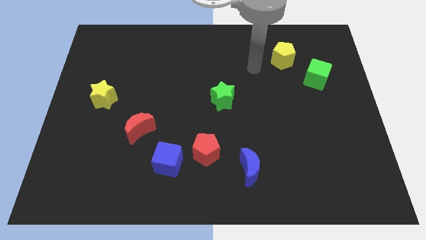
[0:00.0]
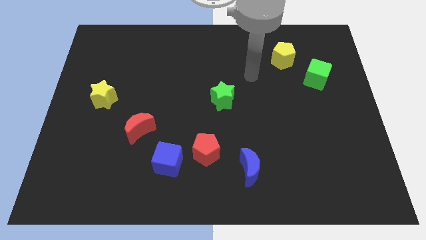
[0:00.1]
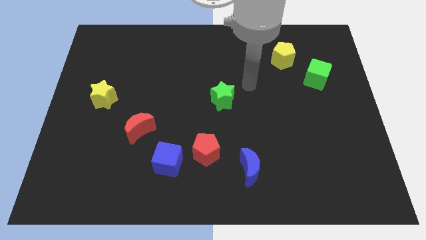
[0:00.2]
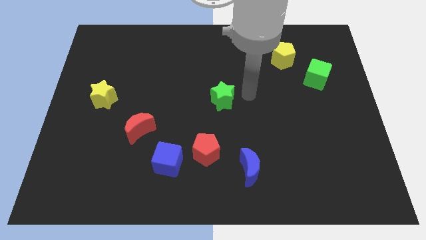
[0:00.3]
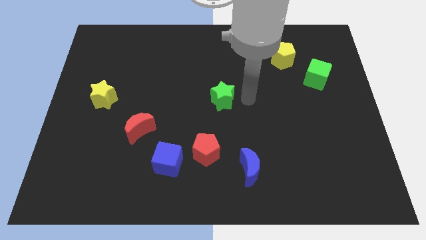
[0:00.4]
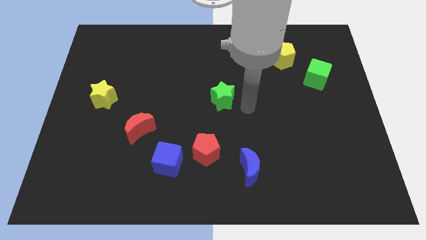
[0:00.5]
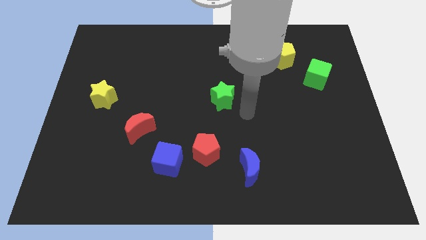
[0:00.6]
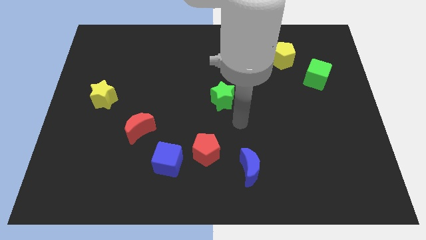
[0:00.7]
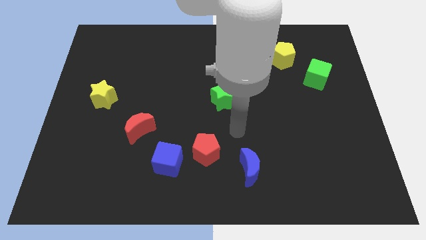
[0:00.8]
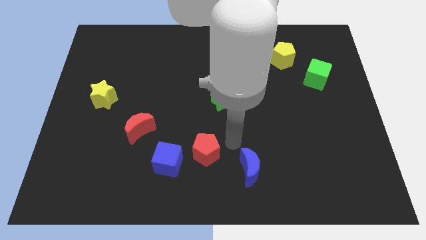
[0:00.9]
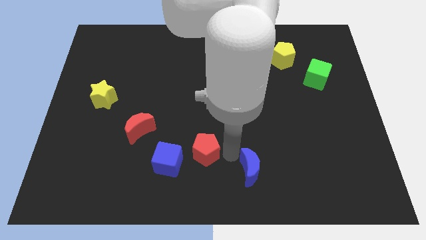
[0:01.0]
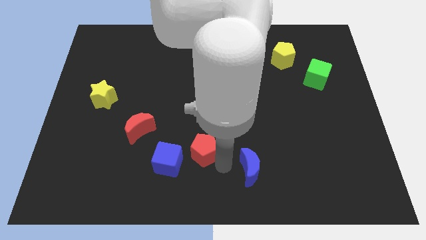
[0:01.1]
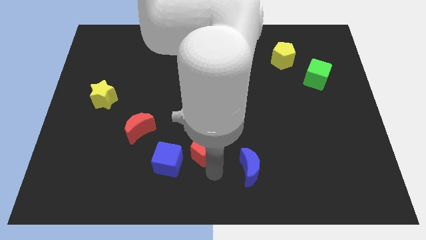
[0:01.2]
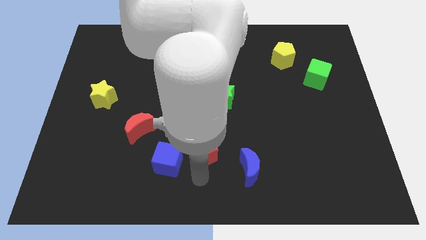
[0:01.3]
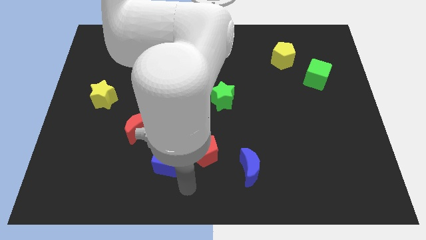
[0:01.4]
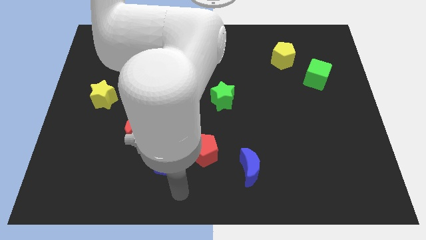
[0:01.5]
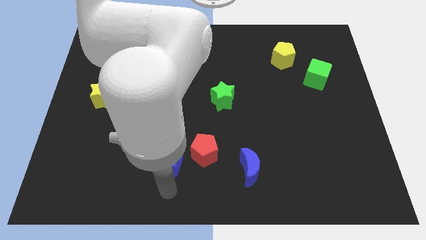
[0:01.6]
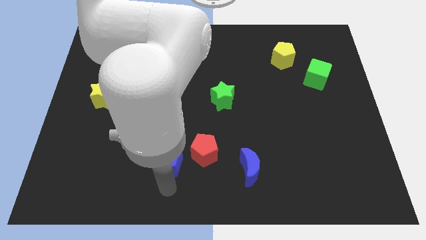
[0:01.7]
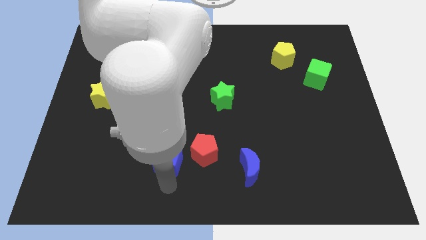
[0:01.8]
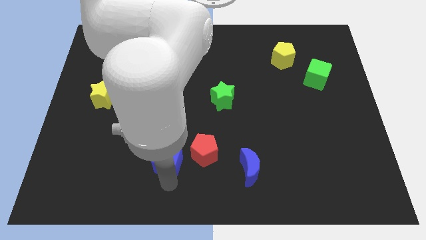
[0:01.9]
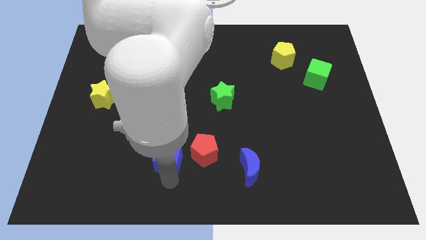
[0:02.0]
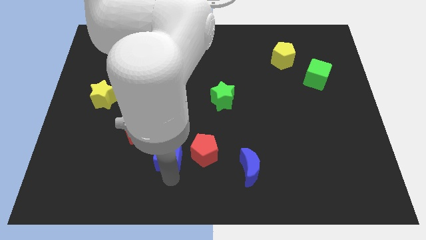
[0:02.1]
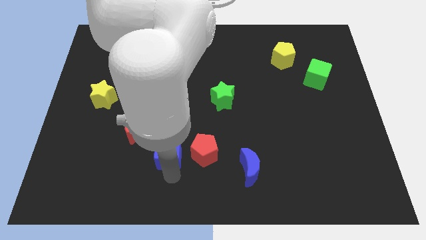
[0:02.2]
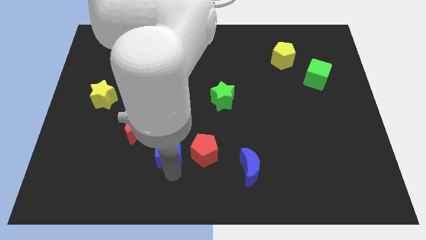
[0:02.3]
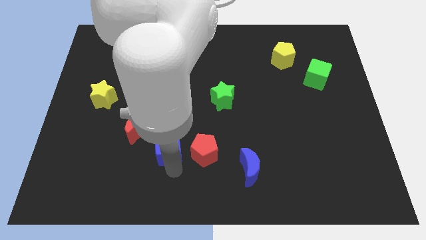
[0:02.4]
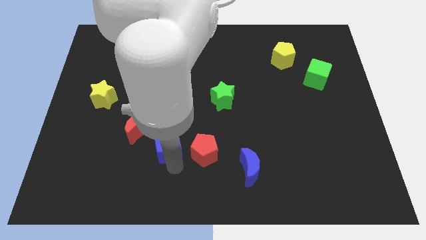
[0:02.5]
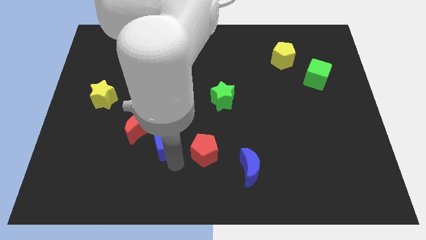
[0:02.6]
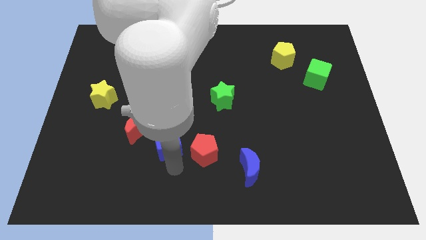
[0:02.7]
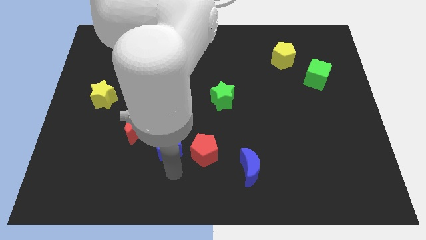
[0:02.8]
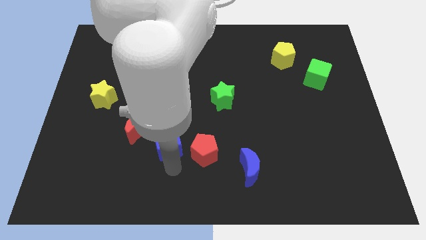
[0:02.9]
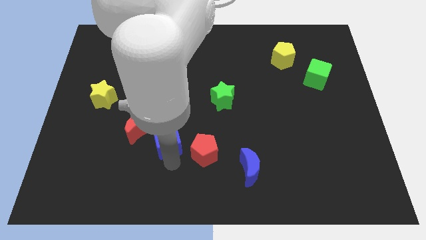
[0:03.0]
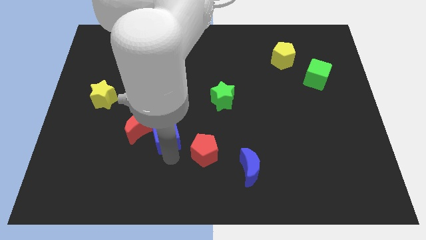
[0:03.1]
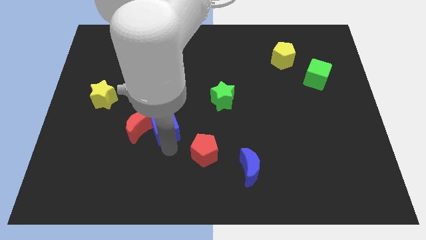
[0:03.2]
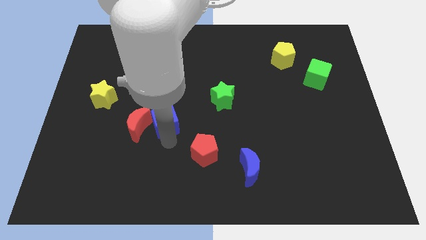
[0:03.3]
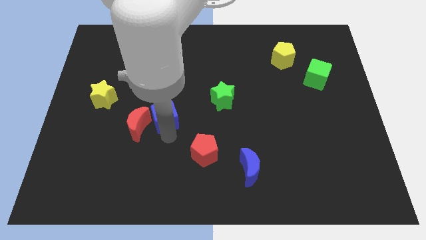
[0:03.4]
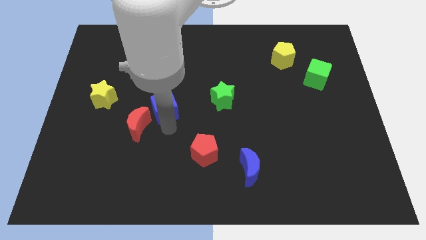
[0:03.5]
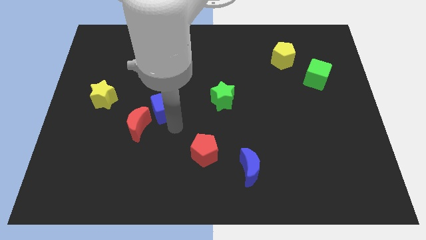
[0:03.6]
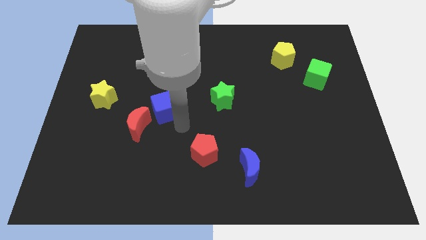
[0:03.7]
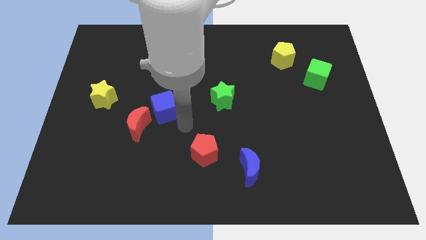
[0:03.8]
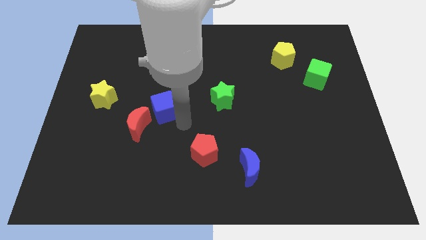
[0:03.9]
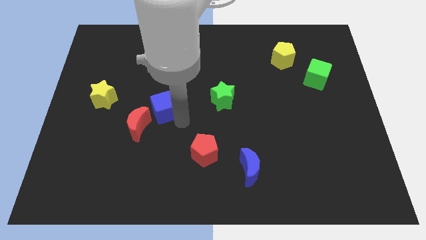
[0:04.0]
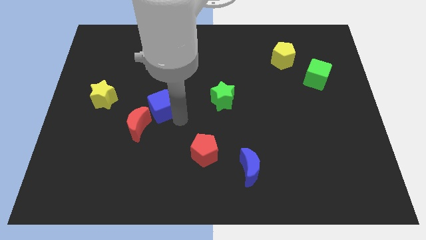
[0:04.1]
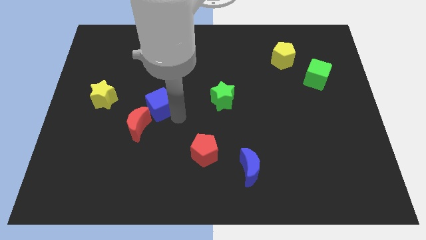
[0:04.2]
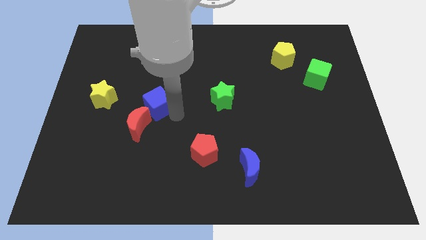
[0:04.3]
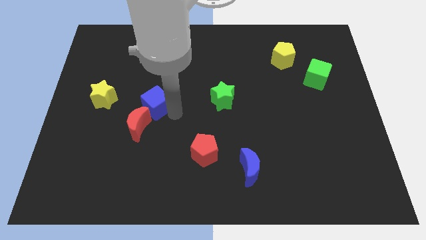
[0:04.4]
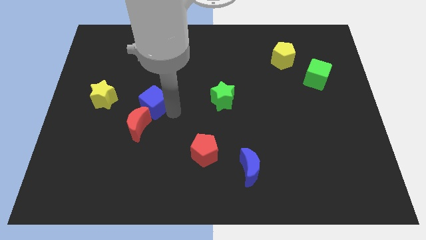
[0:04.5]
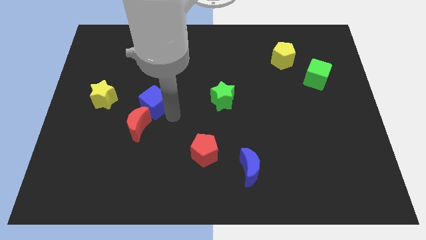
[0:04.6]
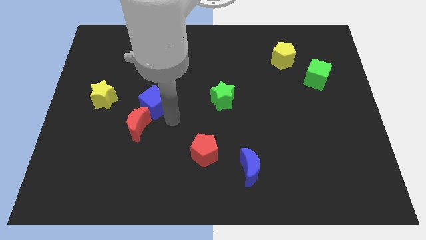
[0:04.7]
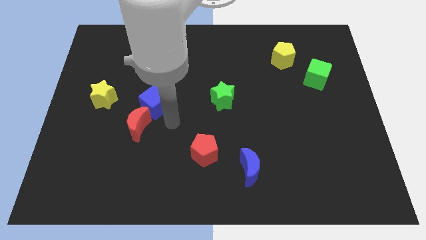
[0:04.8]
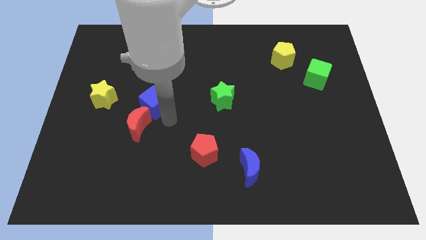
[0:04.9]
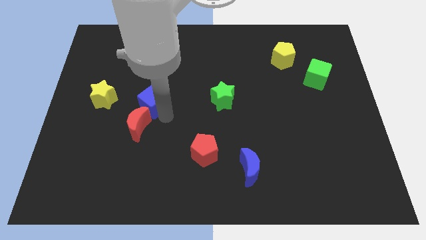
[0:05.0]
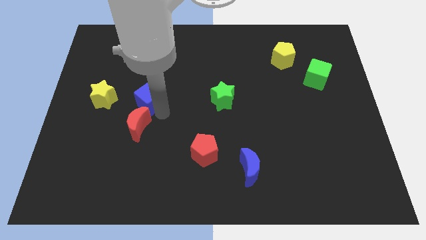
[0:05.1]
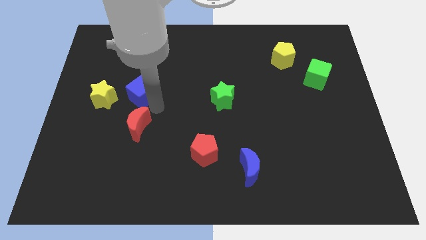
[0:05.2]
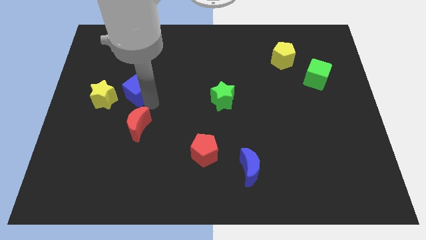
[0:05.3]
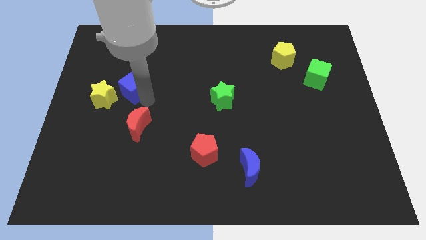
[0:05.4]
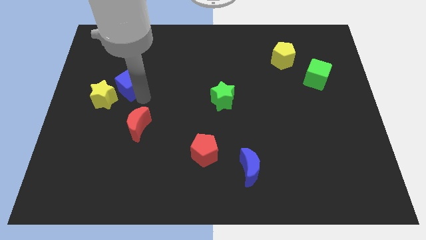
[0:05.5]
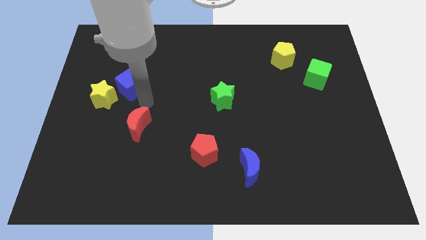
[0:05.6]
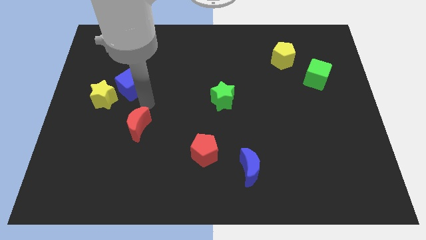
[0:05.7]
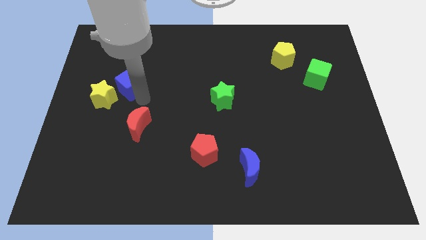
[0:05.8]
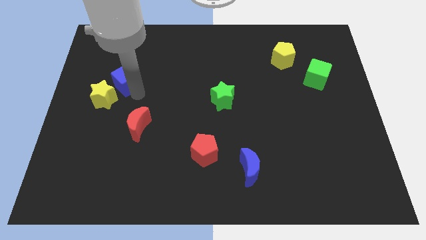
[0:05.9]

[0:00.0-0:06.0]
slide the blue cube above the yellow star

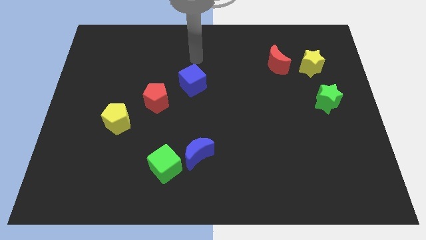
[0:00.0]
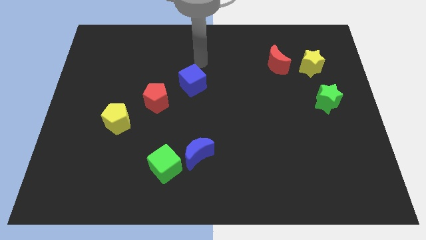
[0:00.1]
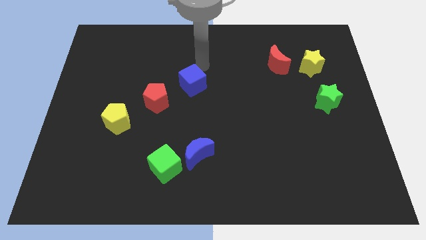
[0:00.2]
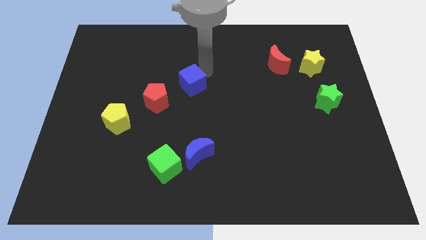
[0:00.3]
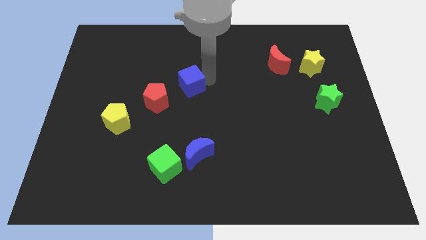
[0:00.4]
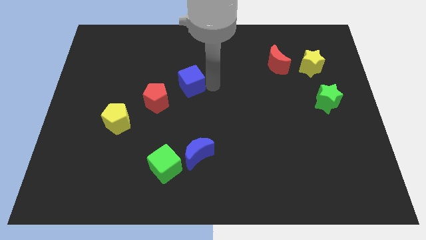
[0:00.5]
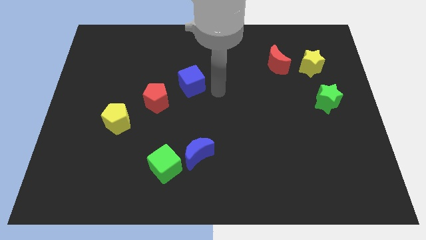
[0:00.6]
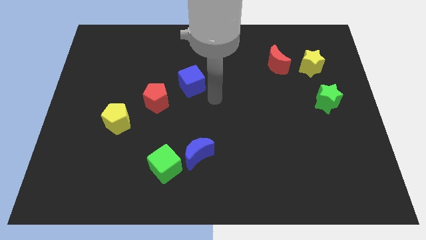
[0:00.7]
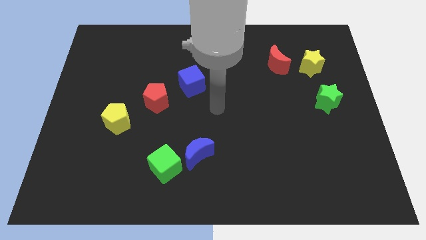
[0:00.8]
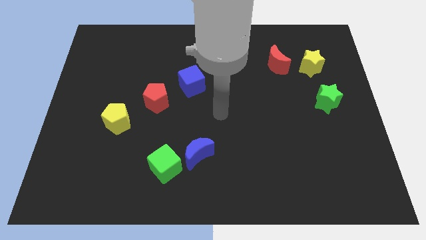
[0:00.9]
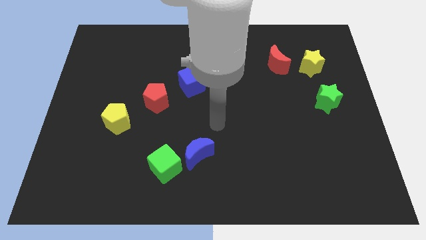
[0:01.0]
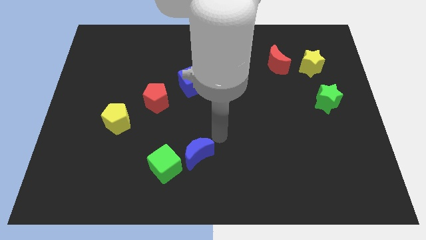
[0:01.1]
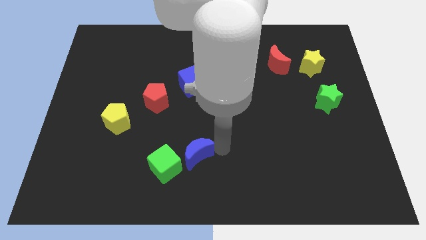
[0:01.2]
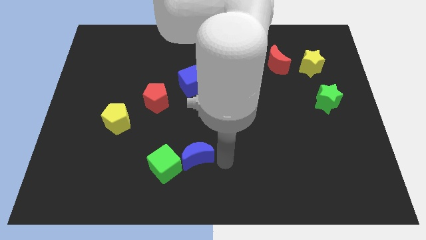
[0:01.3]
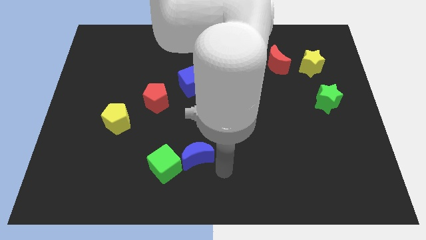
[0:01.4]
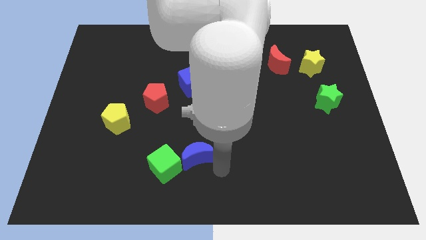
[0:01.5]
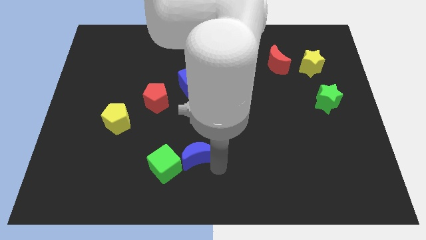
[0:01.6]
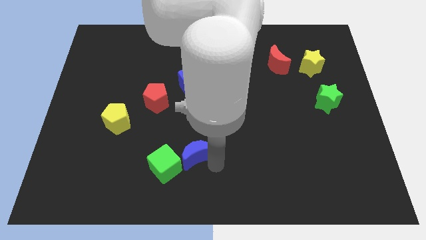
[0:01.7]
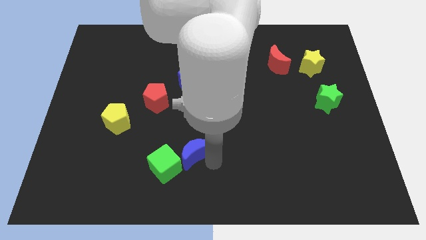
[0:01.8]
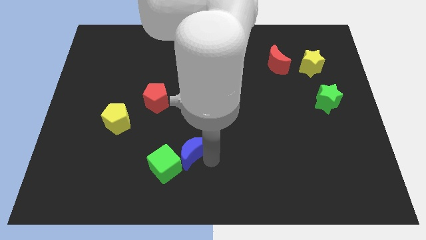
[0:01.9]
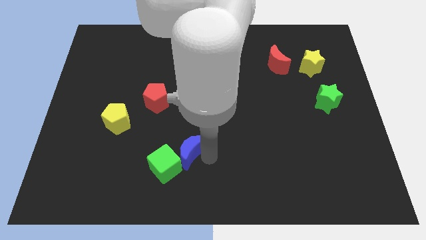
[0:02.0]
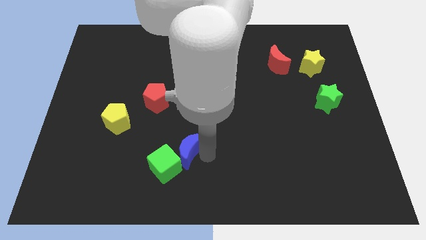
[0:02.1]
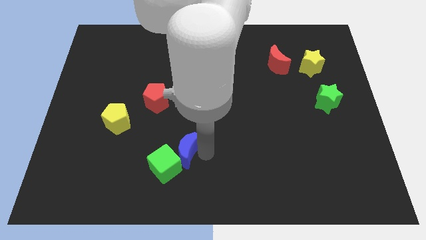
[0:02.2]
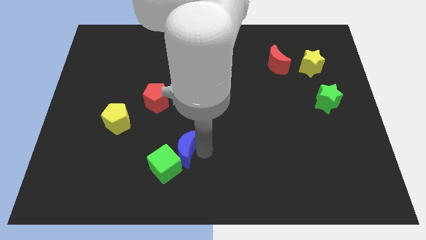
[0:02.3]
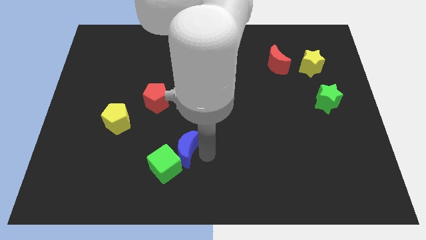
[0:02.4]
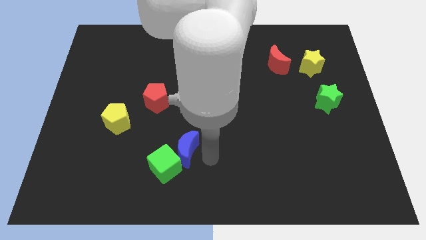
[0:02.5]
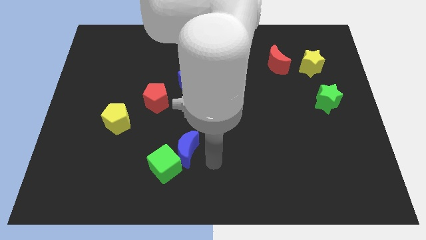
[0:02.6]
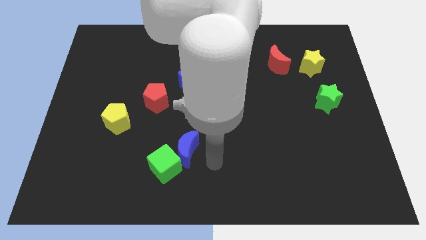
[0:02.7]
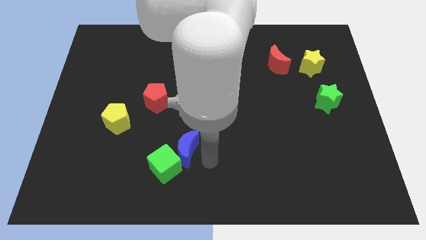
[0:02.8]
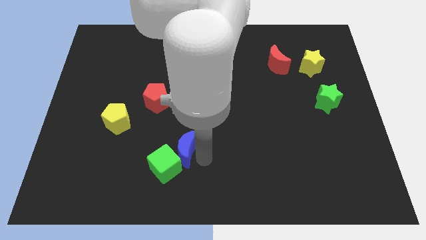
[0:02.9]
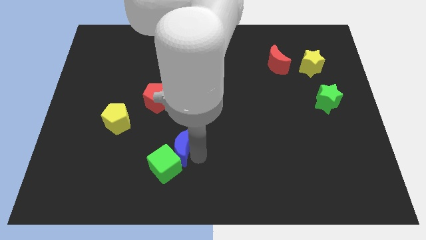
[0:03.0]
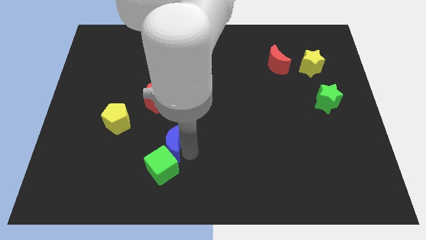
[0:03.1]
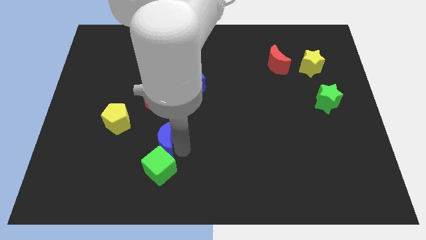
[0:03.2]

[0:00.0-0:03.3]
put the blue moon to the bottom of the red pentagon
